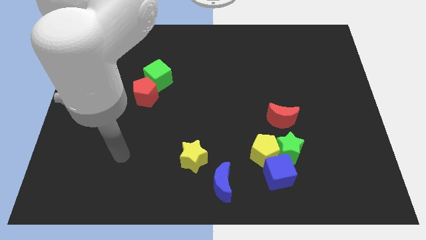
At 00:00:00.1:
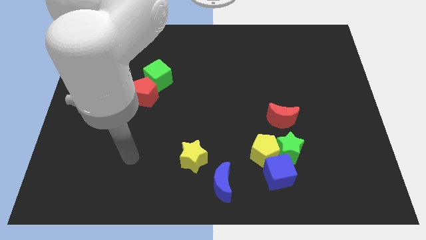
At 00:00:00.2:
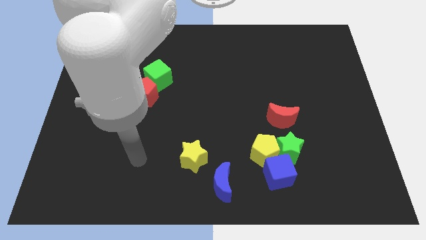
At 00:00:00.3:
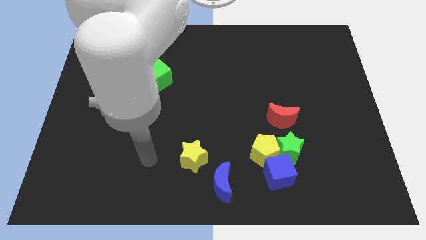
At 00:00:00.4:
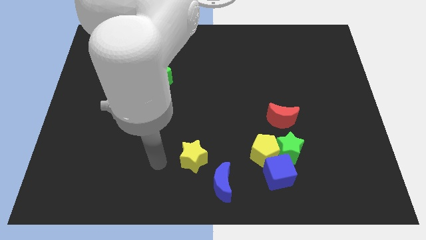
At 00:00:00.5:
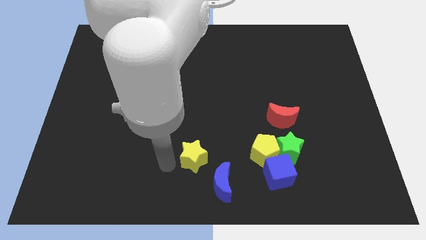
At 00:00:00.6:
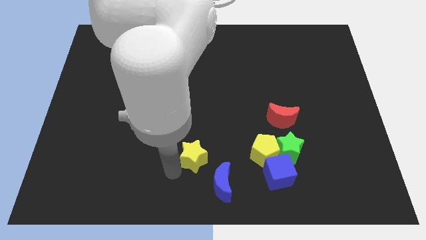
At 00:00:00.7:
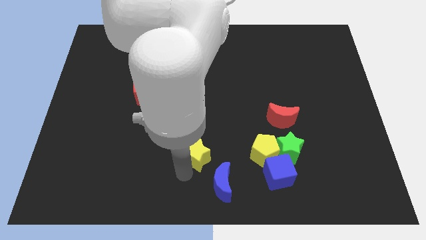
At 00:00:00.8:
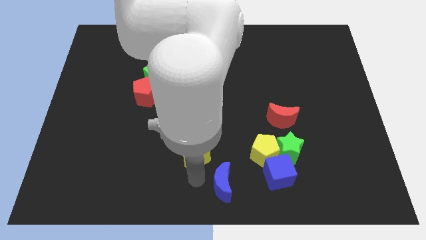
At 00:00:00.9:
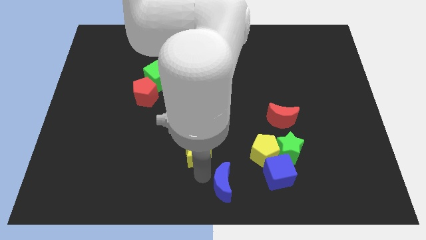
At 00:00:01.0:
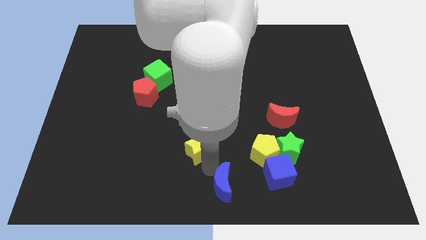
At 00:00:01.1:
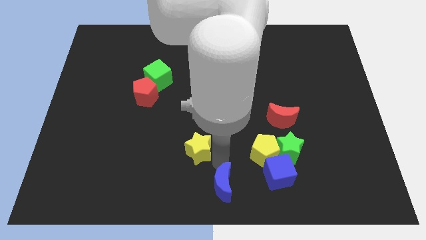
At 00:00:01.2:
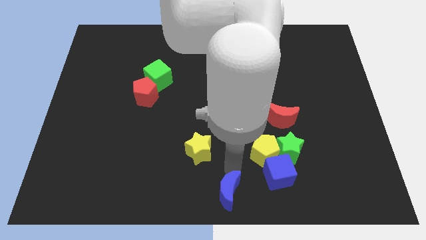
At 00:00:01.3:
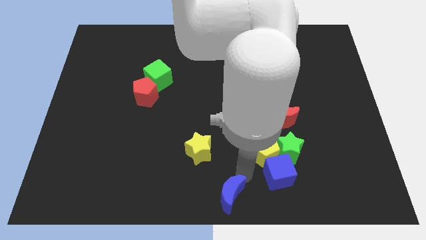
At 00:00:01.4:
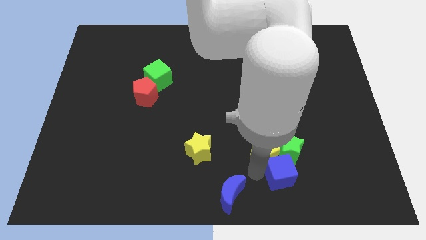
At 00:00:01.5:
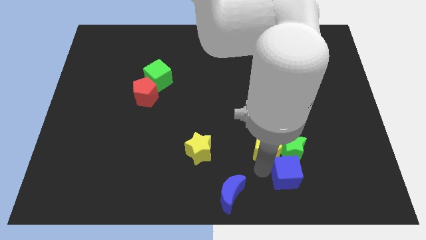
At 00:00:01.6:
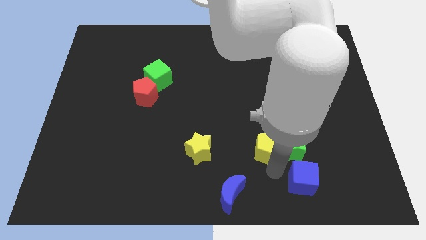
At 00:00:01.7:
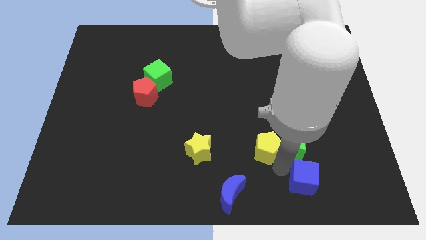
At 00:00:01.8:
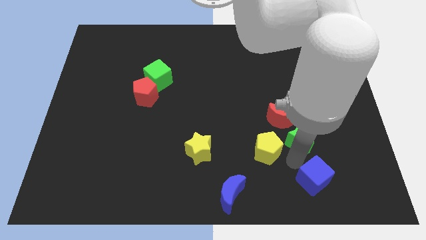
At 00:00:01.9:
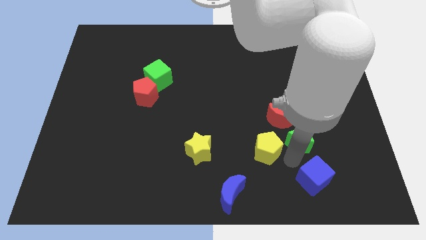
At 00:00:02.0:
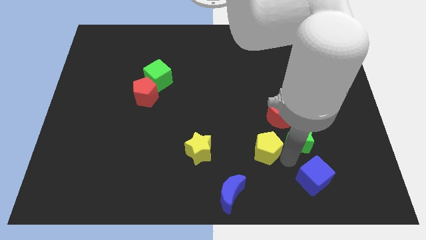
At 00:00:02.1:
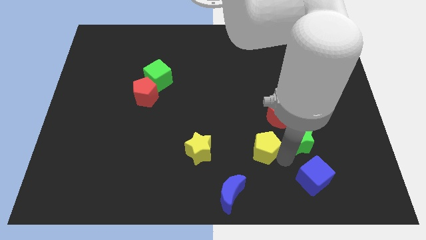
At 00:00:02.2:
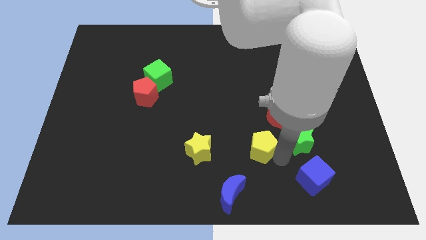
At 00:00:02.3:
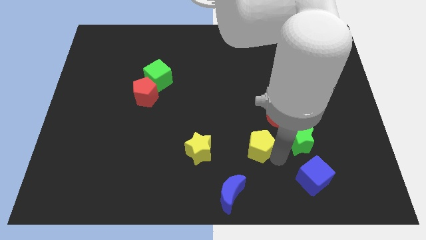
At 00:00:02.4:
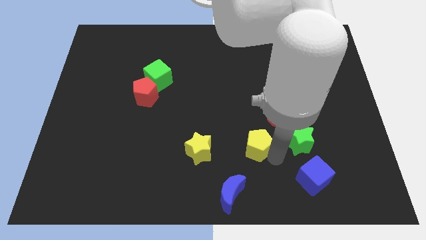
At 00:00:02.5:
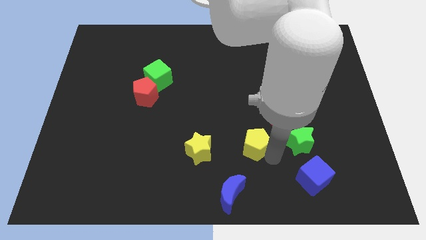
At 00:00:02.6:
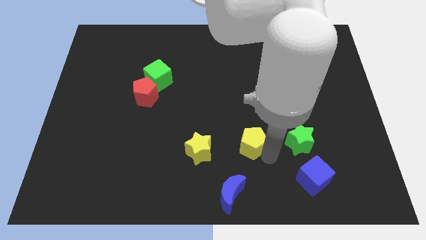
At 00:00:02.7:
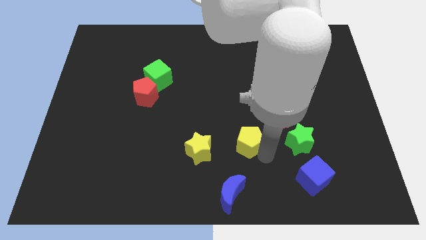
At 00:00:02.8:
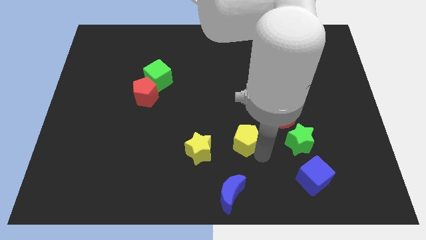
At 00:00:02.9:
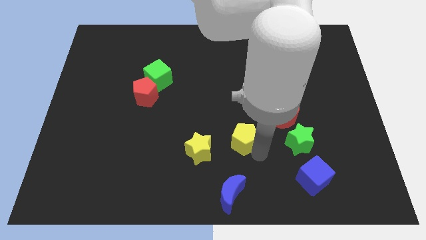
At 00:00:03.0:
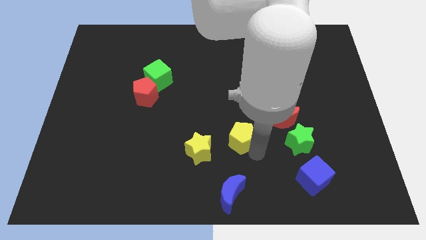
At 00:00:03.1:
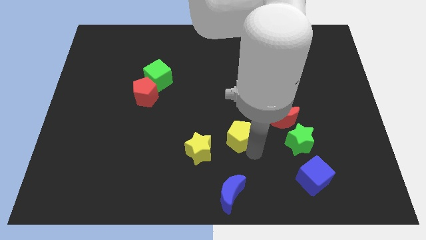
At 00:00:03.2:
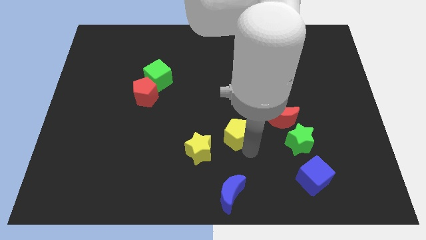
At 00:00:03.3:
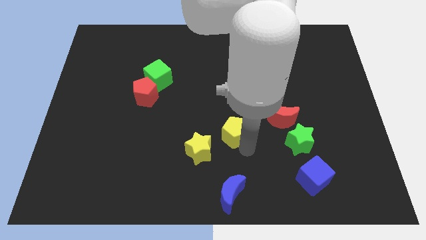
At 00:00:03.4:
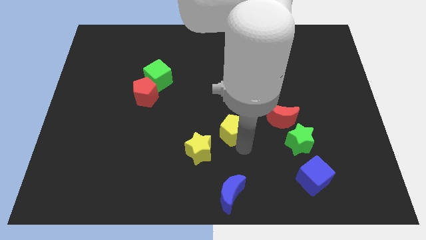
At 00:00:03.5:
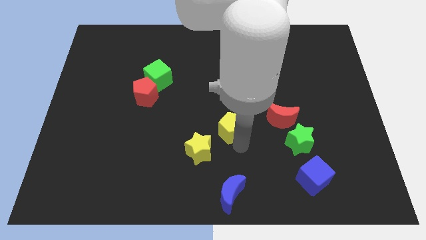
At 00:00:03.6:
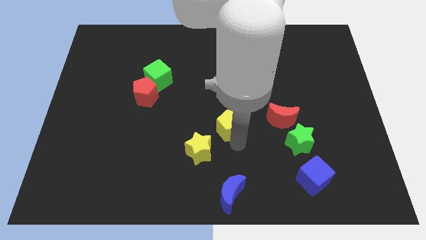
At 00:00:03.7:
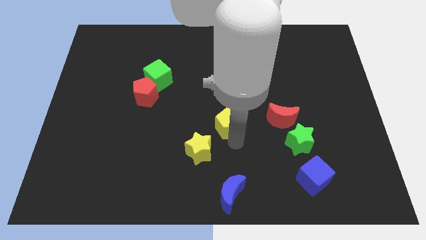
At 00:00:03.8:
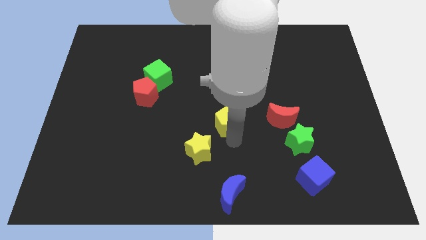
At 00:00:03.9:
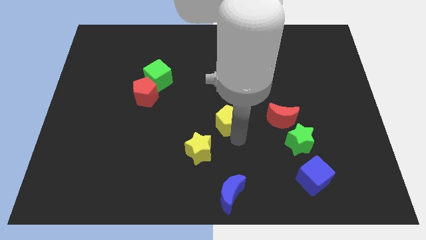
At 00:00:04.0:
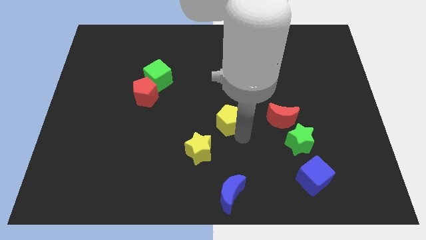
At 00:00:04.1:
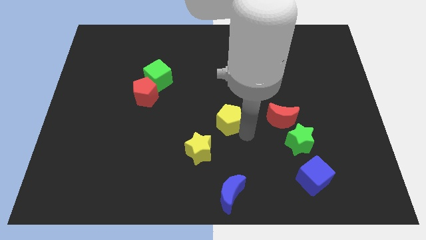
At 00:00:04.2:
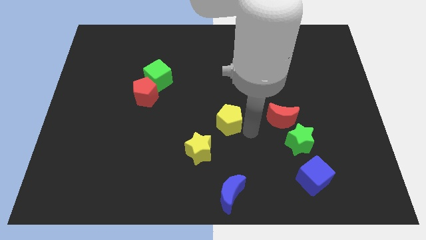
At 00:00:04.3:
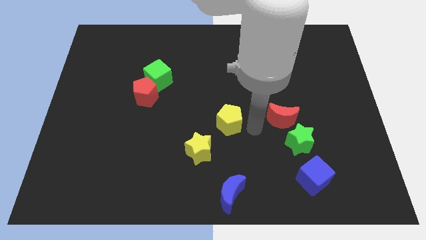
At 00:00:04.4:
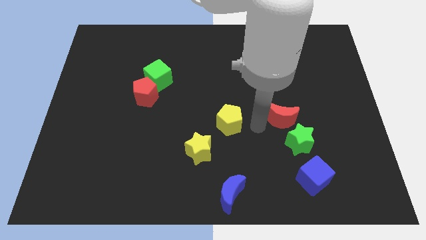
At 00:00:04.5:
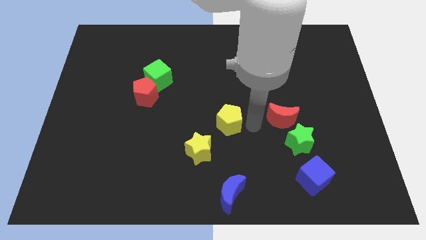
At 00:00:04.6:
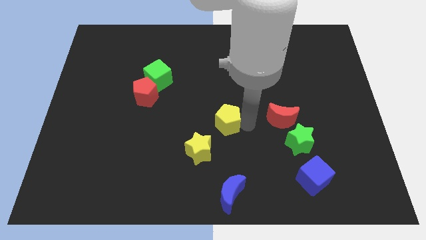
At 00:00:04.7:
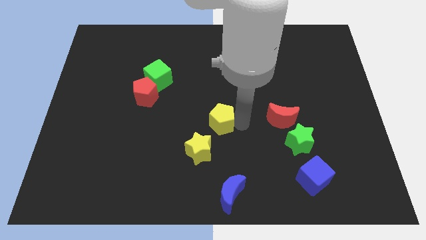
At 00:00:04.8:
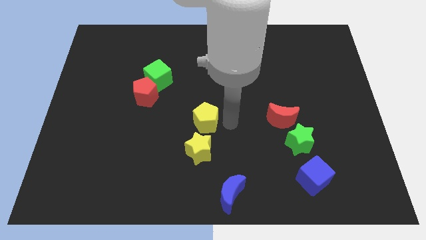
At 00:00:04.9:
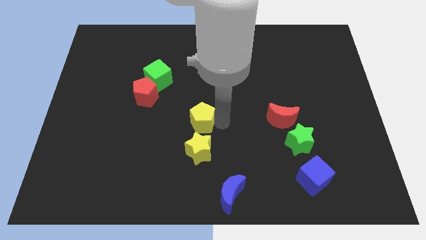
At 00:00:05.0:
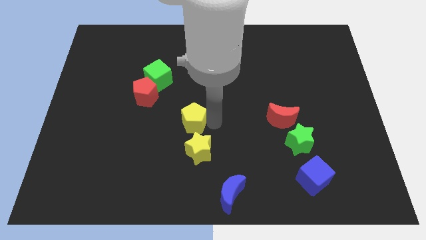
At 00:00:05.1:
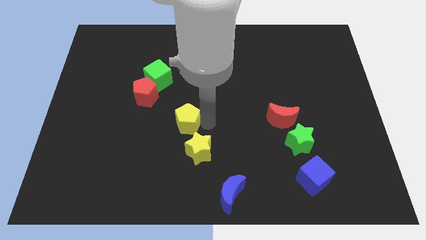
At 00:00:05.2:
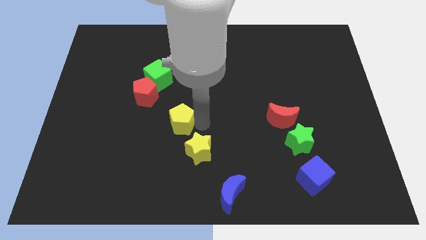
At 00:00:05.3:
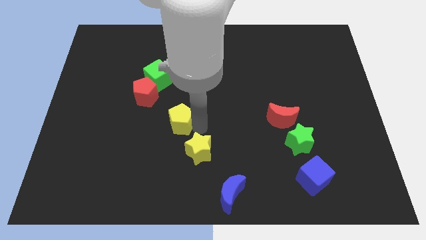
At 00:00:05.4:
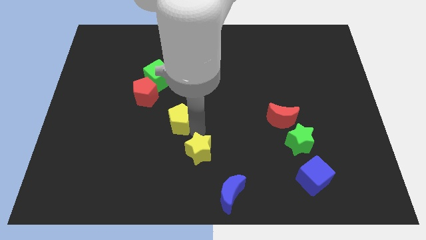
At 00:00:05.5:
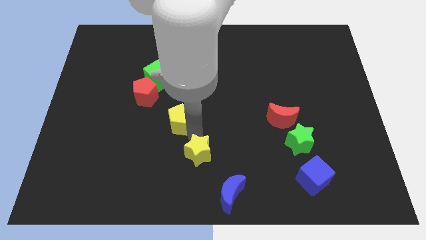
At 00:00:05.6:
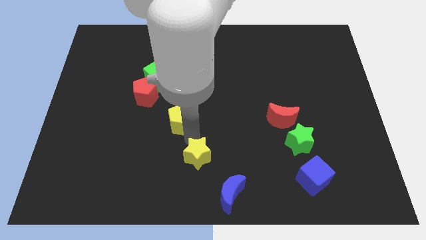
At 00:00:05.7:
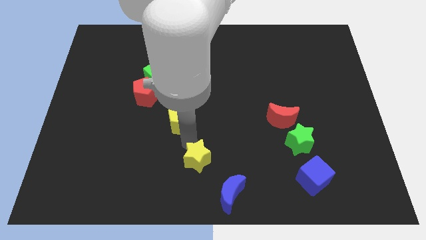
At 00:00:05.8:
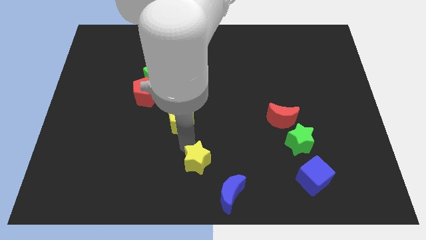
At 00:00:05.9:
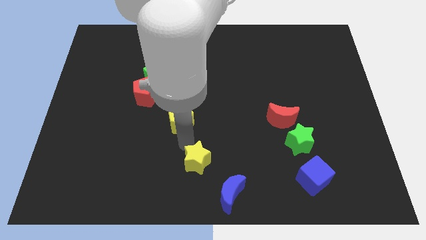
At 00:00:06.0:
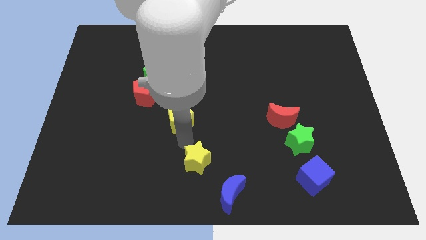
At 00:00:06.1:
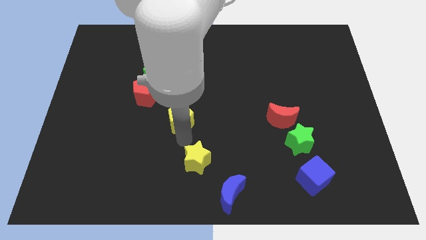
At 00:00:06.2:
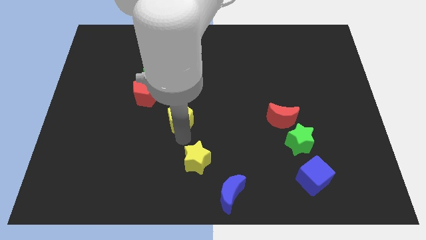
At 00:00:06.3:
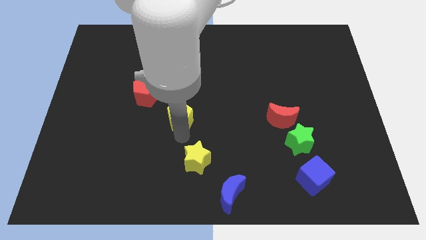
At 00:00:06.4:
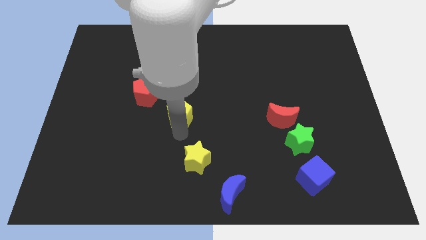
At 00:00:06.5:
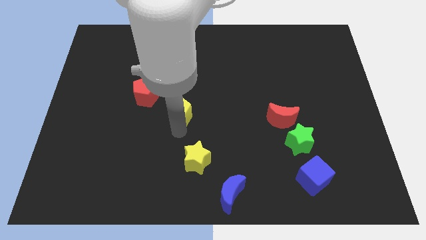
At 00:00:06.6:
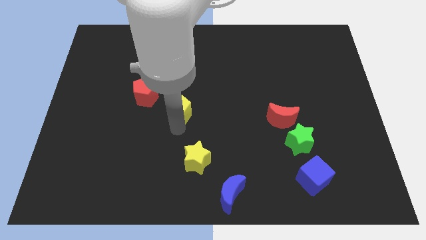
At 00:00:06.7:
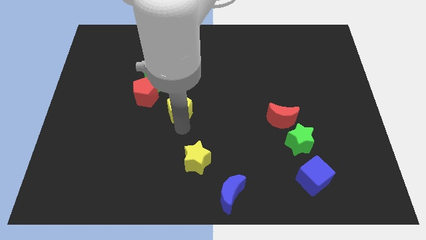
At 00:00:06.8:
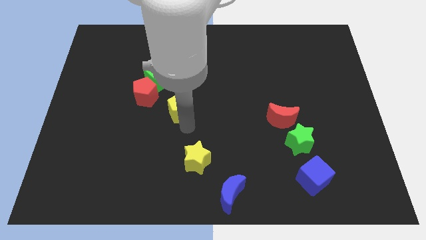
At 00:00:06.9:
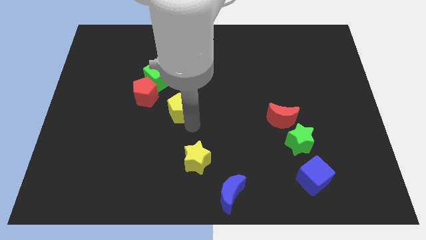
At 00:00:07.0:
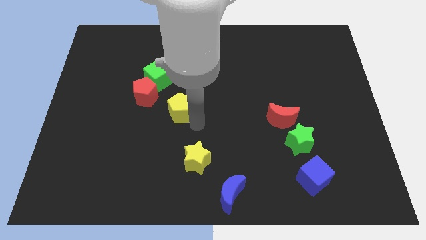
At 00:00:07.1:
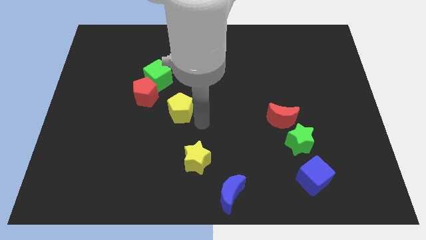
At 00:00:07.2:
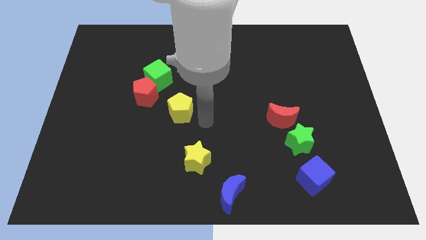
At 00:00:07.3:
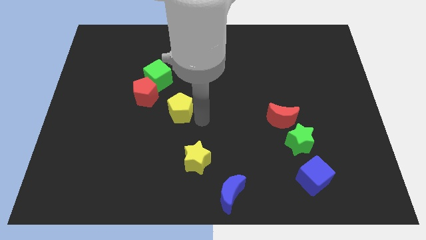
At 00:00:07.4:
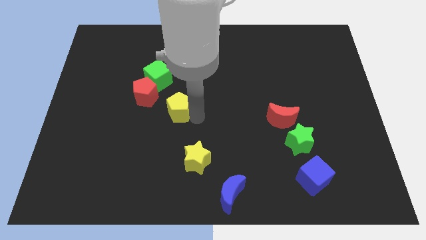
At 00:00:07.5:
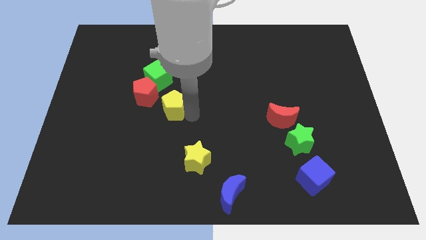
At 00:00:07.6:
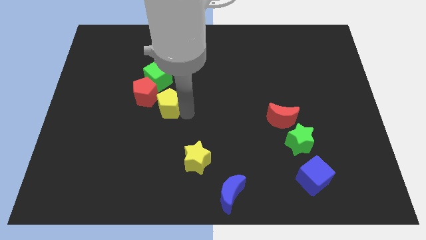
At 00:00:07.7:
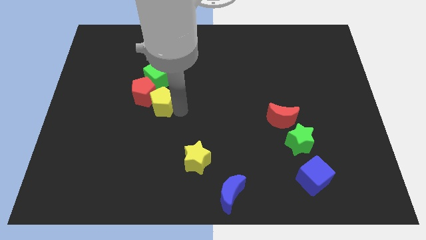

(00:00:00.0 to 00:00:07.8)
move the yellow pentagon next to the red pentagon
